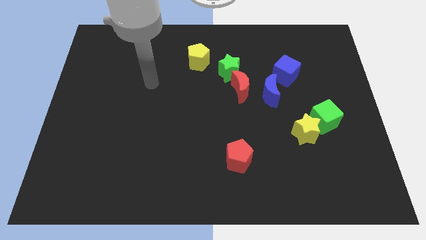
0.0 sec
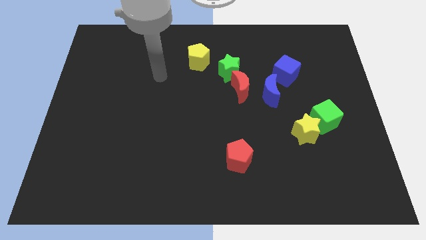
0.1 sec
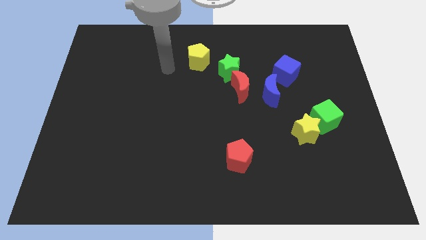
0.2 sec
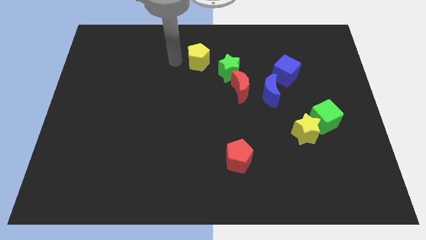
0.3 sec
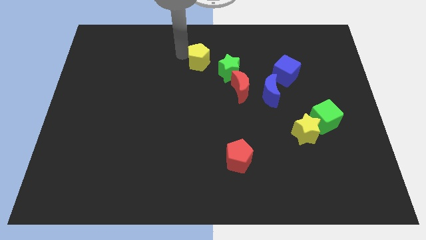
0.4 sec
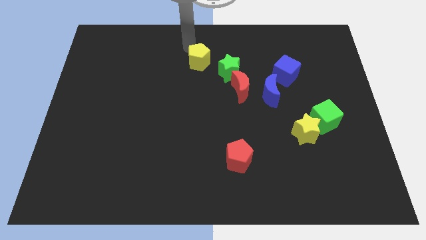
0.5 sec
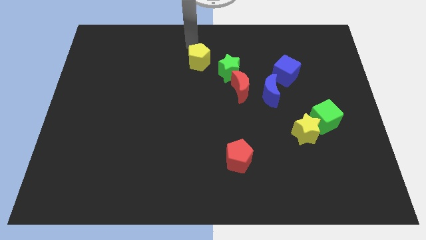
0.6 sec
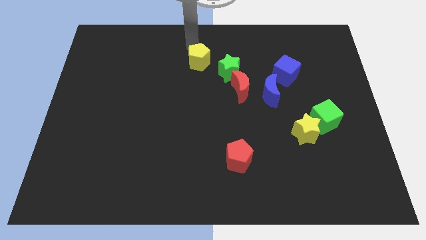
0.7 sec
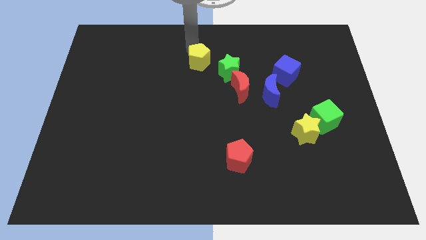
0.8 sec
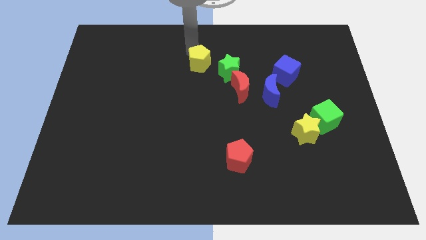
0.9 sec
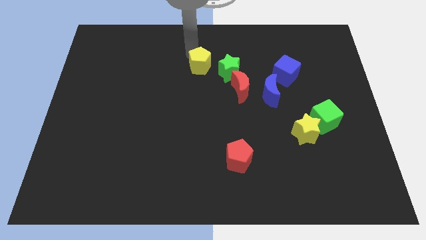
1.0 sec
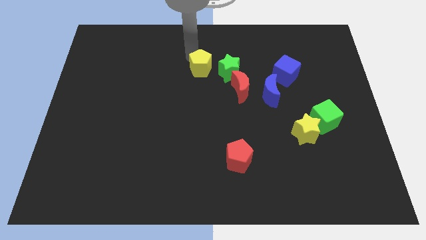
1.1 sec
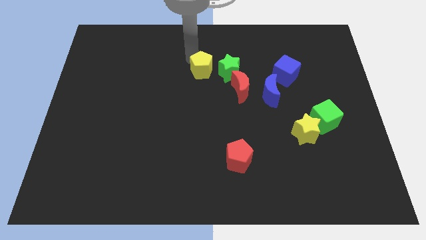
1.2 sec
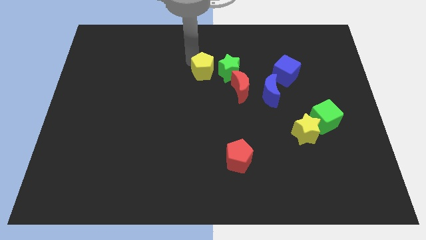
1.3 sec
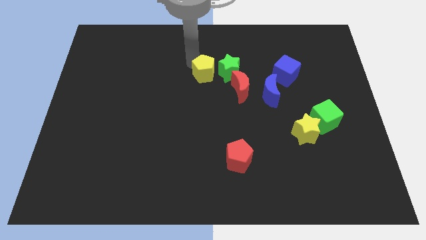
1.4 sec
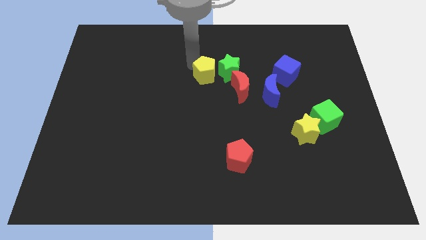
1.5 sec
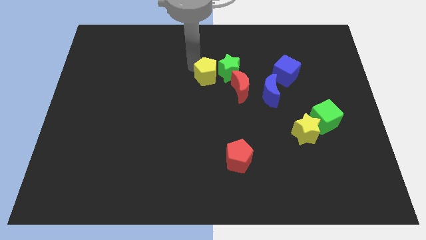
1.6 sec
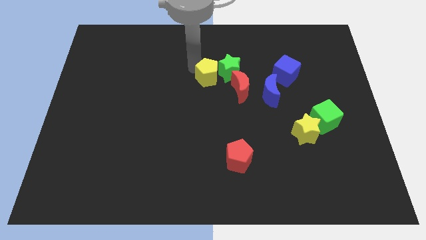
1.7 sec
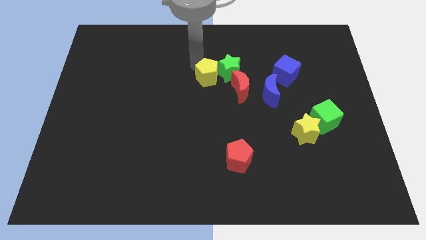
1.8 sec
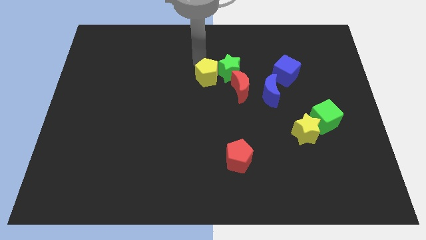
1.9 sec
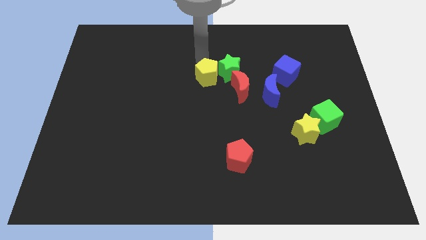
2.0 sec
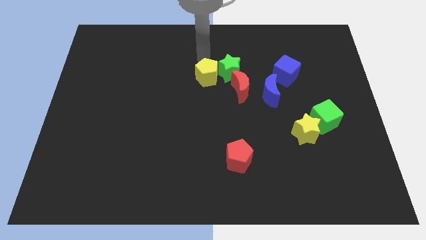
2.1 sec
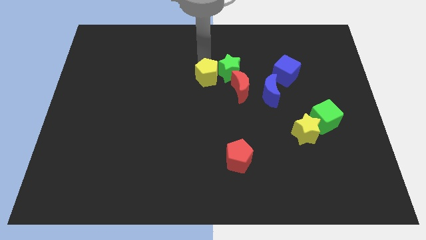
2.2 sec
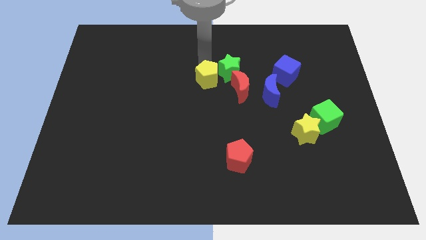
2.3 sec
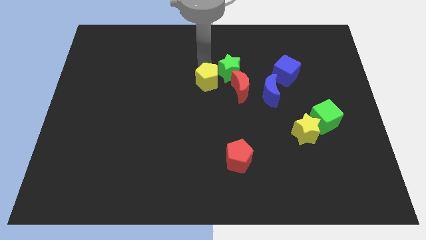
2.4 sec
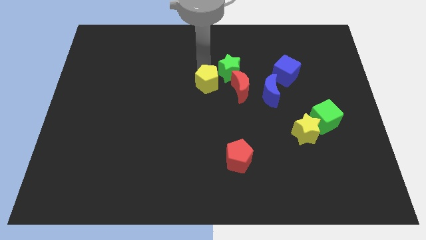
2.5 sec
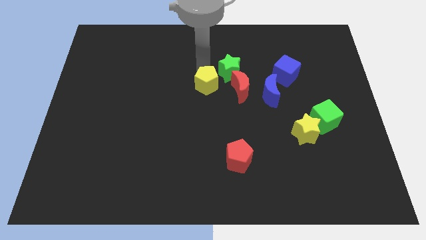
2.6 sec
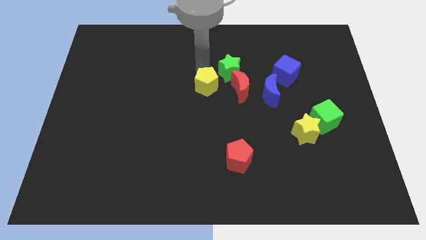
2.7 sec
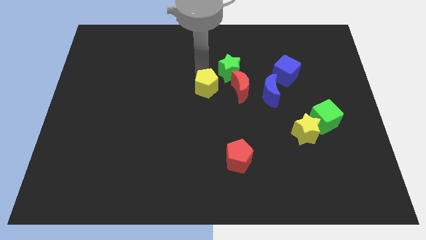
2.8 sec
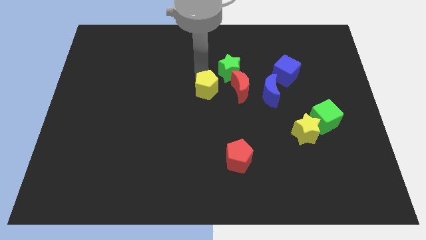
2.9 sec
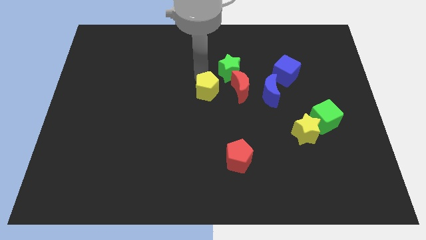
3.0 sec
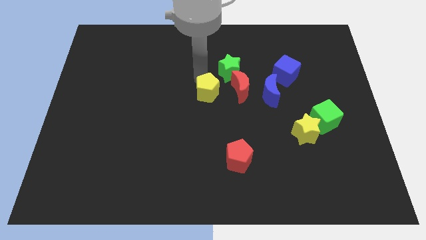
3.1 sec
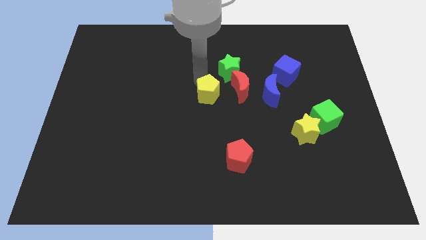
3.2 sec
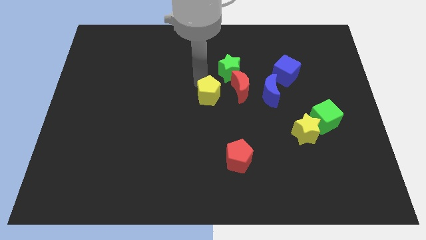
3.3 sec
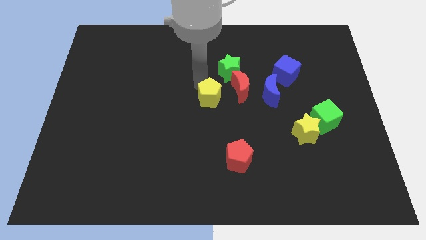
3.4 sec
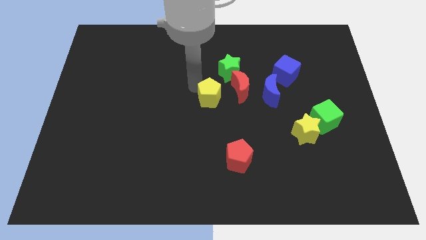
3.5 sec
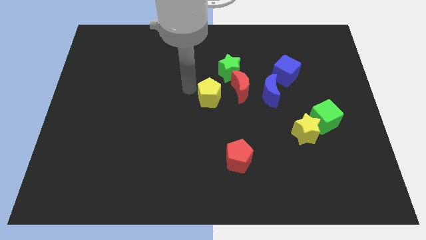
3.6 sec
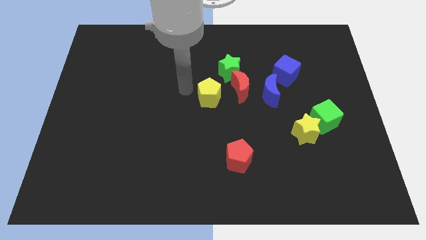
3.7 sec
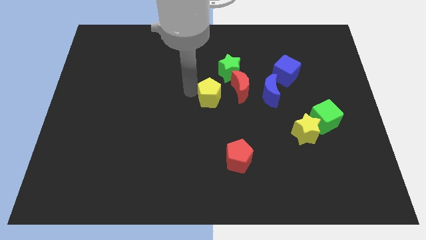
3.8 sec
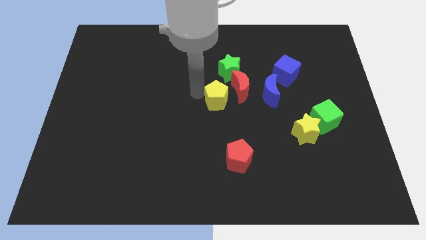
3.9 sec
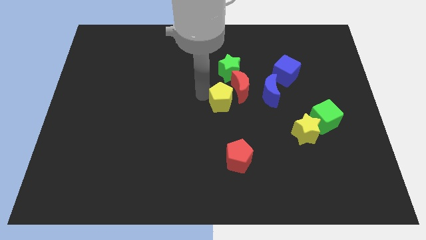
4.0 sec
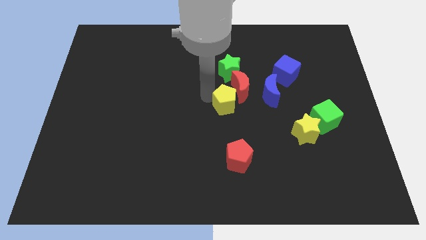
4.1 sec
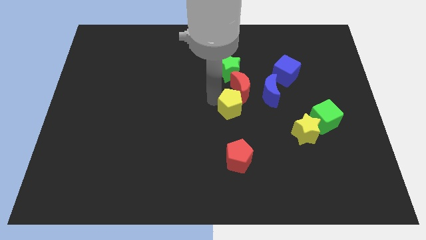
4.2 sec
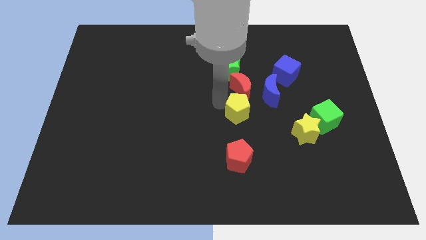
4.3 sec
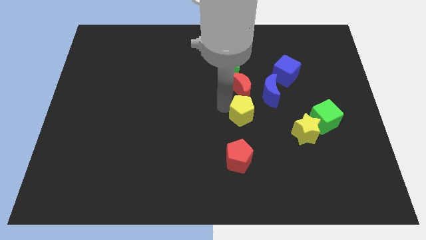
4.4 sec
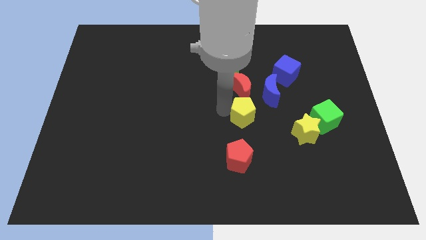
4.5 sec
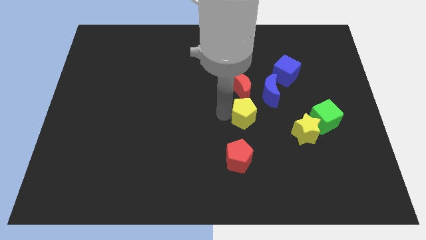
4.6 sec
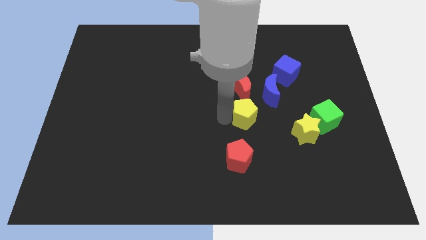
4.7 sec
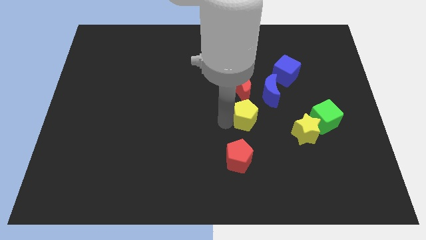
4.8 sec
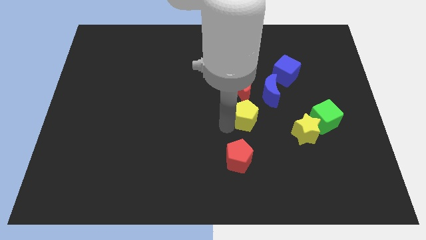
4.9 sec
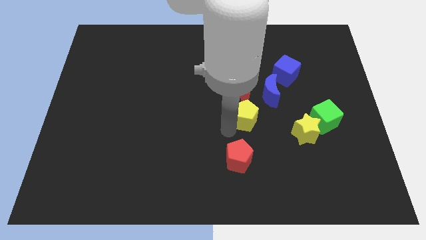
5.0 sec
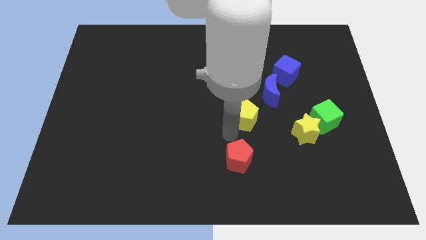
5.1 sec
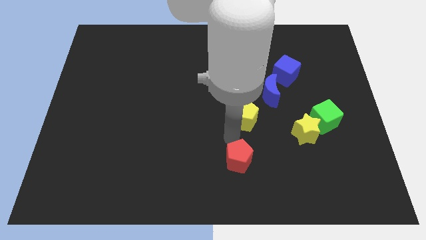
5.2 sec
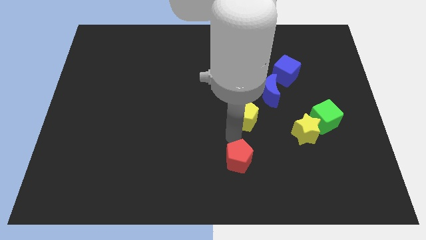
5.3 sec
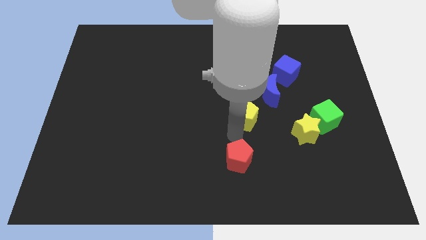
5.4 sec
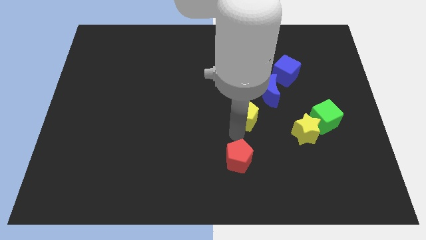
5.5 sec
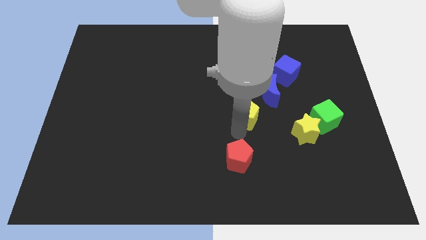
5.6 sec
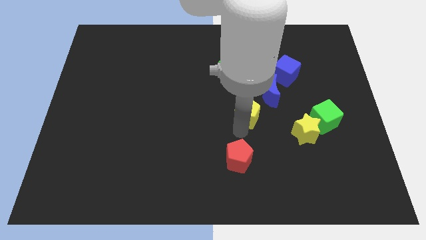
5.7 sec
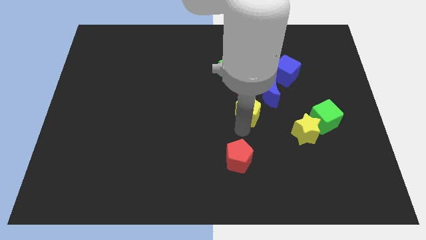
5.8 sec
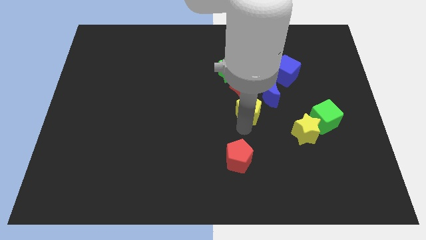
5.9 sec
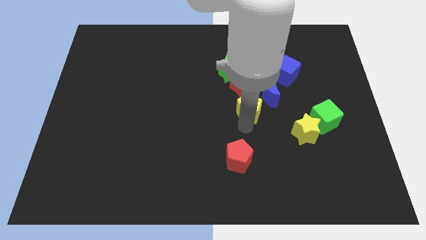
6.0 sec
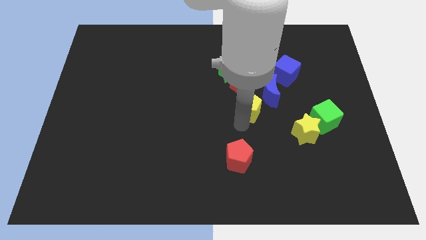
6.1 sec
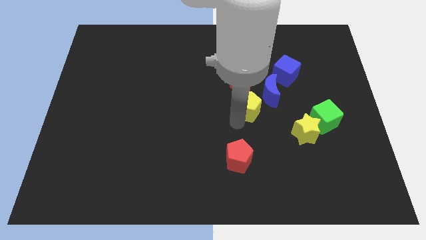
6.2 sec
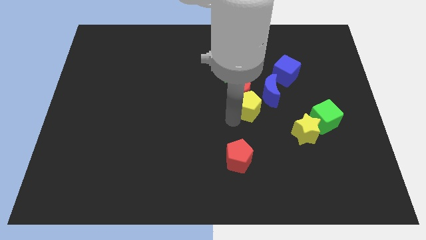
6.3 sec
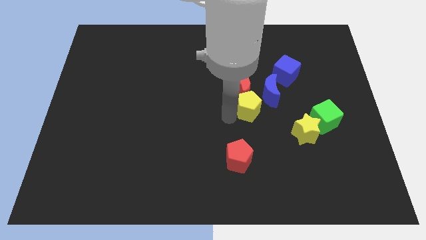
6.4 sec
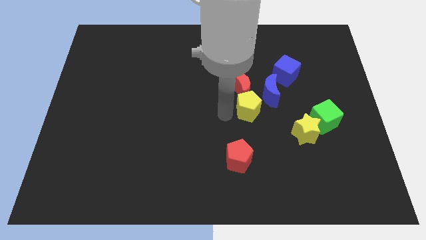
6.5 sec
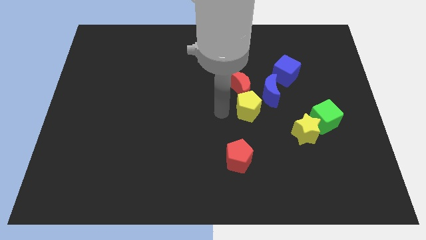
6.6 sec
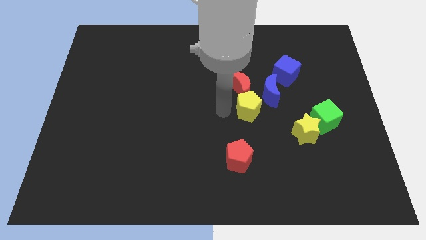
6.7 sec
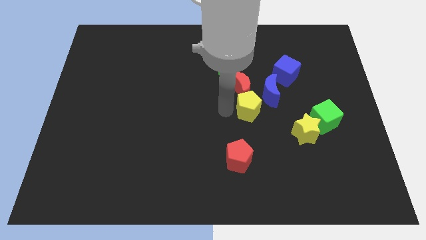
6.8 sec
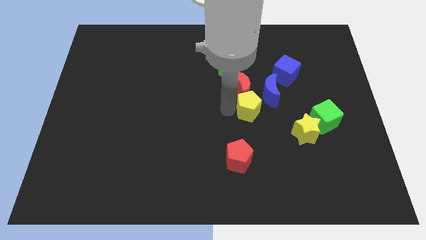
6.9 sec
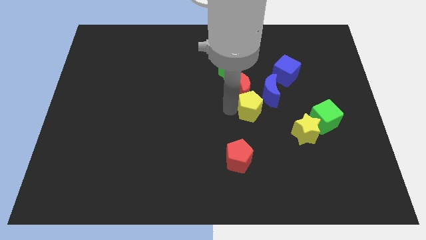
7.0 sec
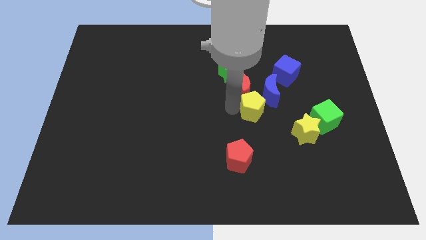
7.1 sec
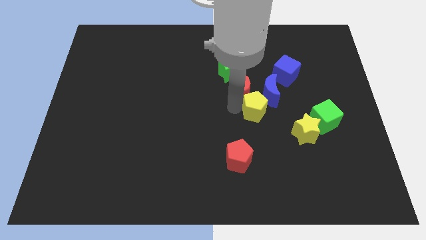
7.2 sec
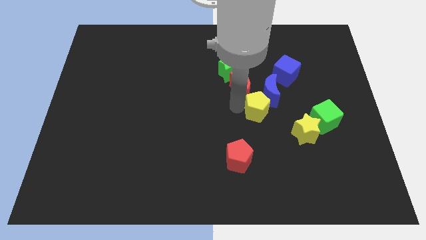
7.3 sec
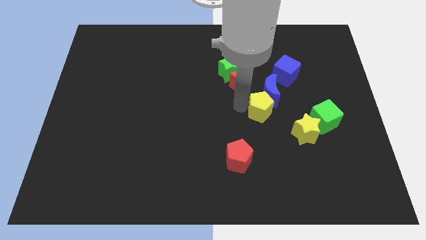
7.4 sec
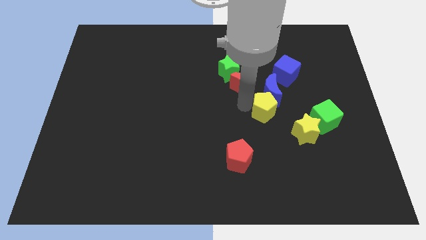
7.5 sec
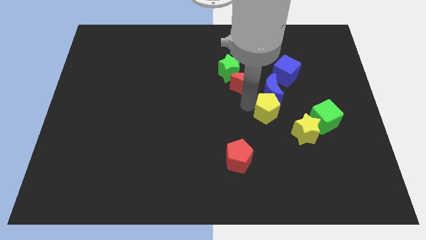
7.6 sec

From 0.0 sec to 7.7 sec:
move the yellow pentagon to the bottom right side of the blue moon
